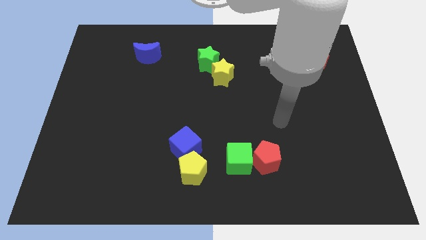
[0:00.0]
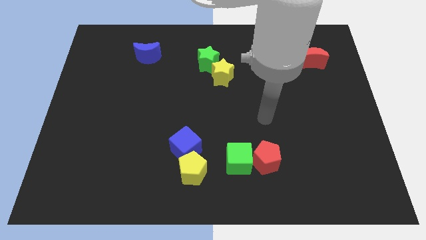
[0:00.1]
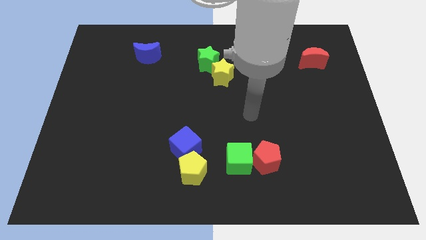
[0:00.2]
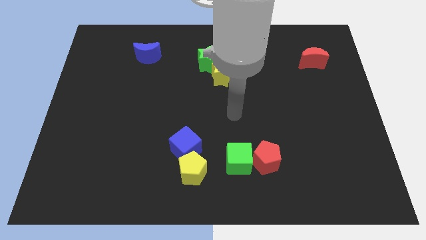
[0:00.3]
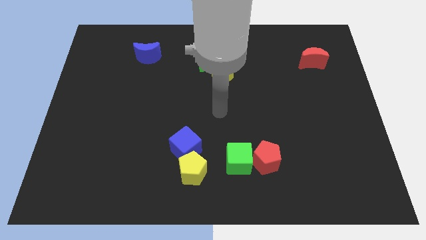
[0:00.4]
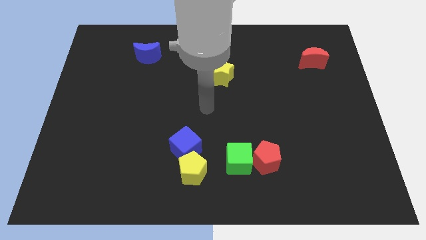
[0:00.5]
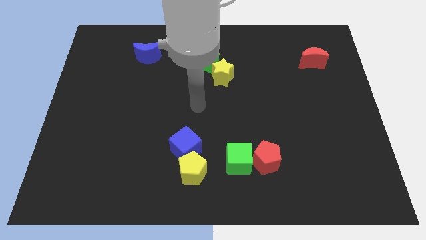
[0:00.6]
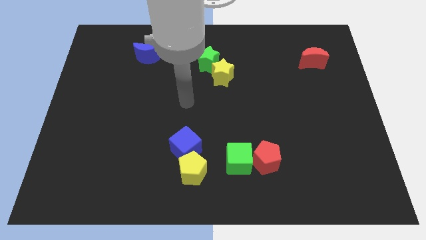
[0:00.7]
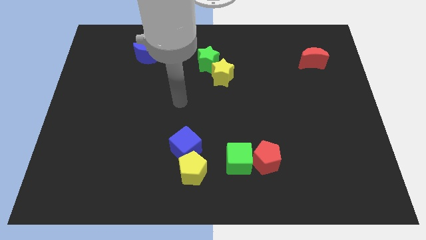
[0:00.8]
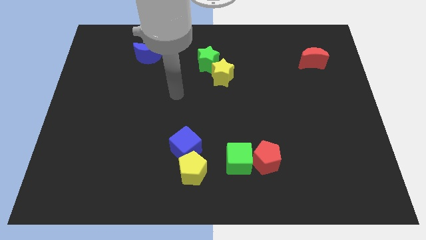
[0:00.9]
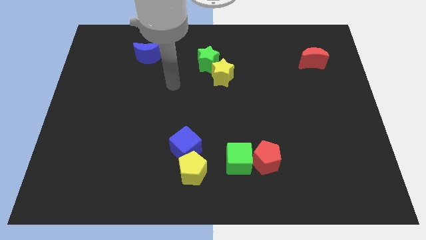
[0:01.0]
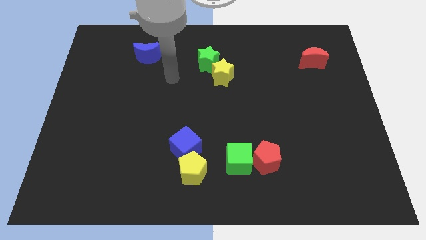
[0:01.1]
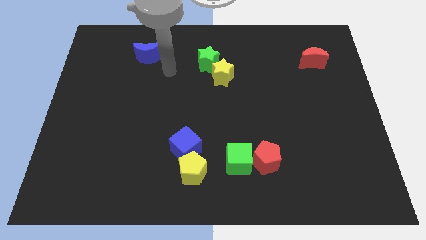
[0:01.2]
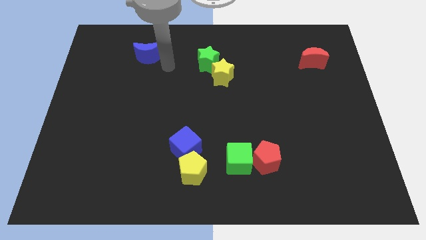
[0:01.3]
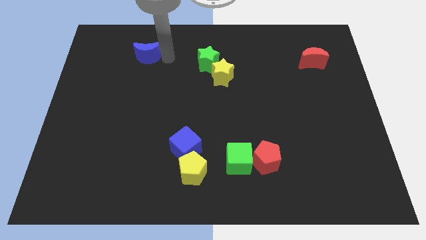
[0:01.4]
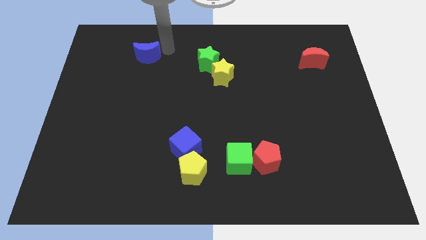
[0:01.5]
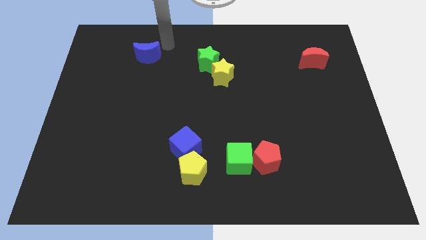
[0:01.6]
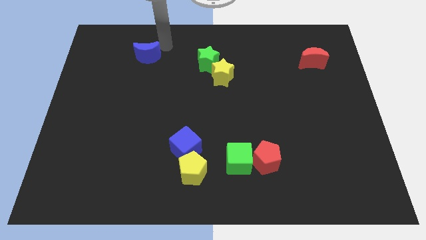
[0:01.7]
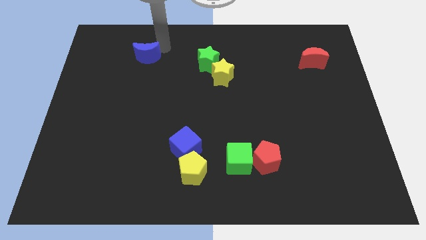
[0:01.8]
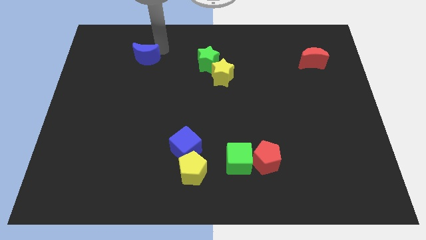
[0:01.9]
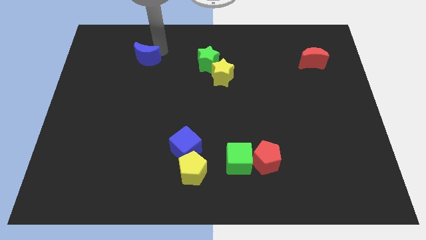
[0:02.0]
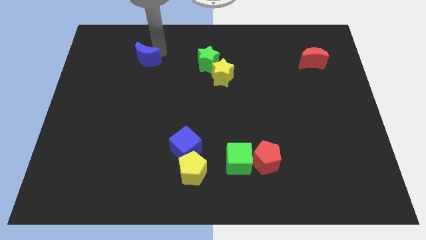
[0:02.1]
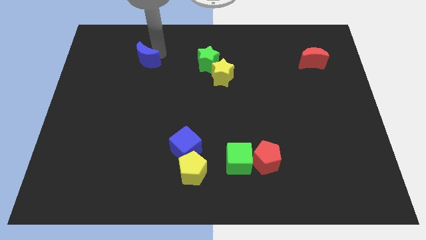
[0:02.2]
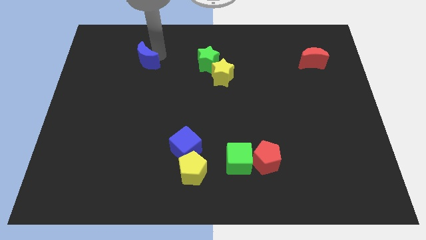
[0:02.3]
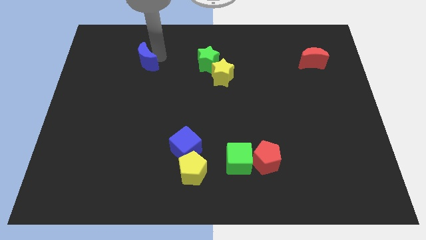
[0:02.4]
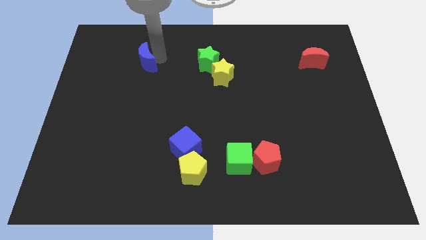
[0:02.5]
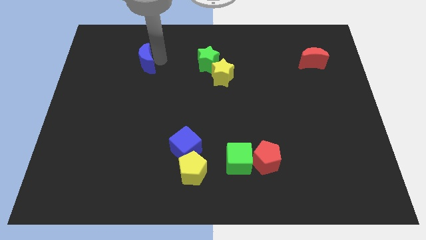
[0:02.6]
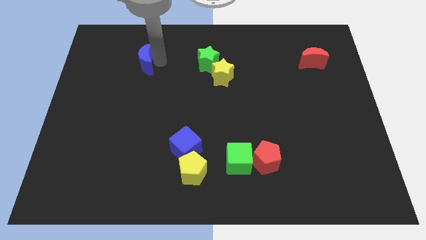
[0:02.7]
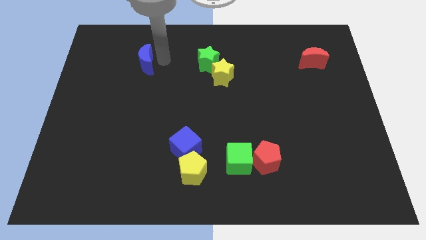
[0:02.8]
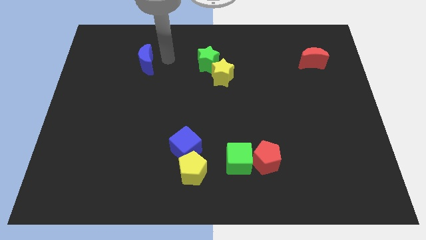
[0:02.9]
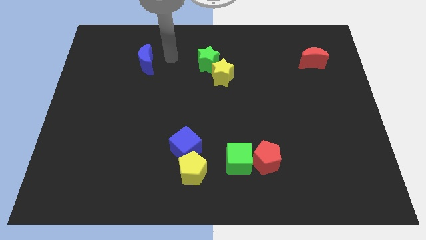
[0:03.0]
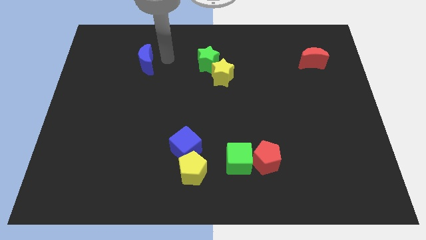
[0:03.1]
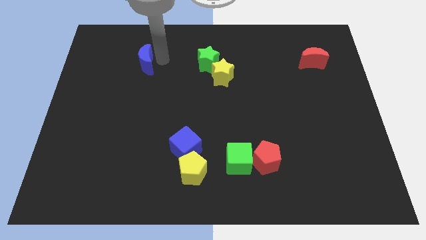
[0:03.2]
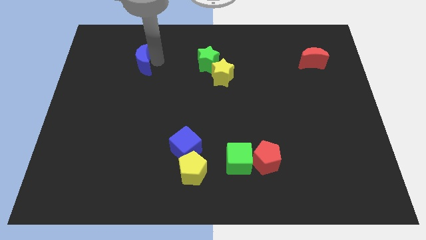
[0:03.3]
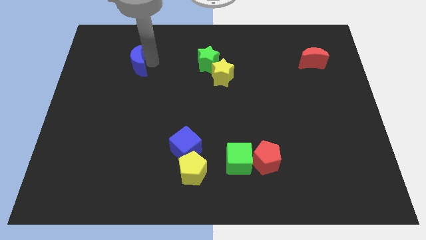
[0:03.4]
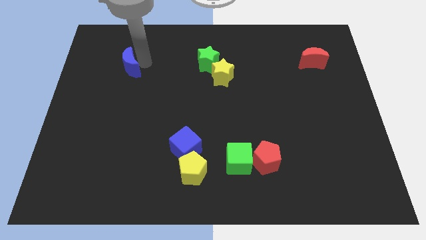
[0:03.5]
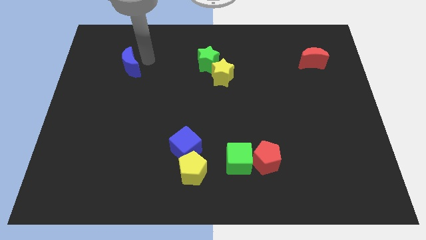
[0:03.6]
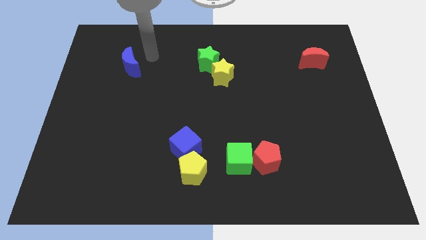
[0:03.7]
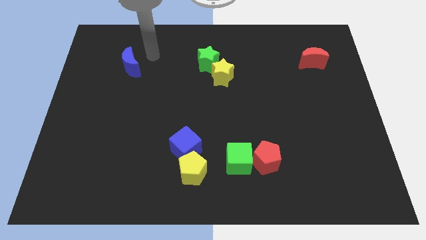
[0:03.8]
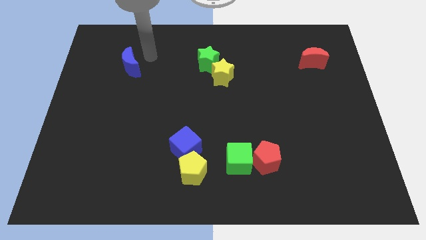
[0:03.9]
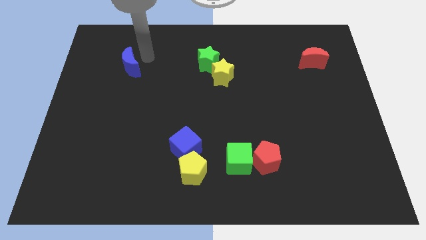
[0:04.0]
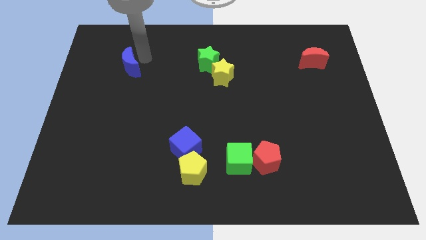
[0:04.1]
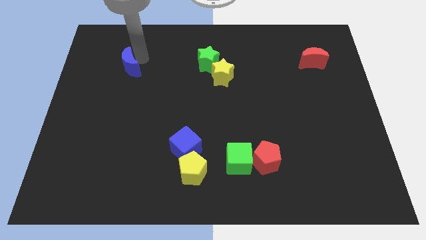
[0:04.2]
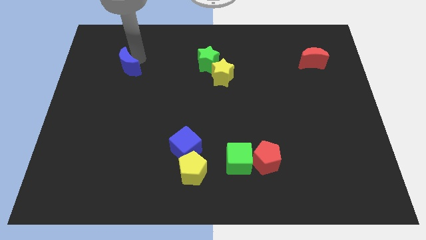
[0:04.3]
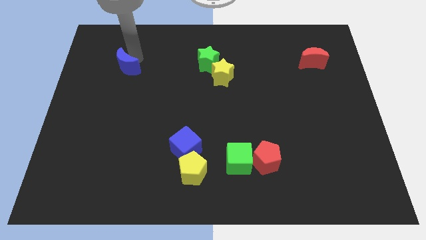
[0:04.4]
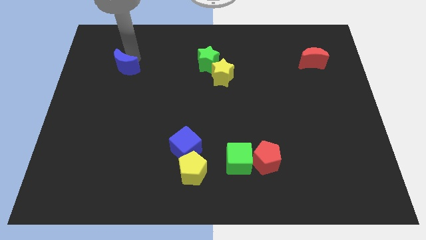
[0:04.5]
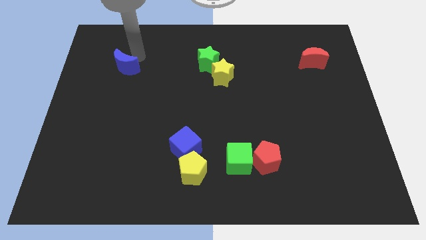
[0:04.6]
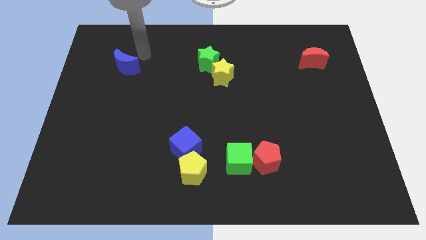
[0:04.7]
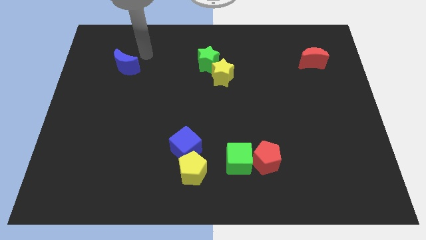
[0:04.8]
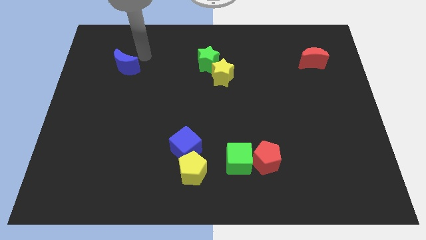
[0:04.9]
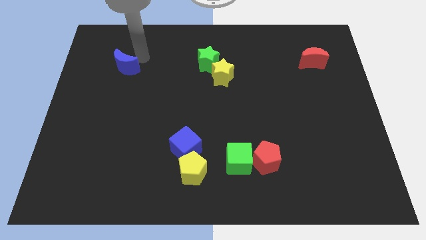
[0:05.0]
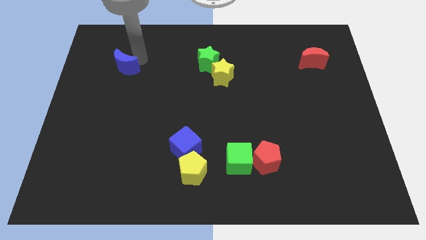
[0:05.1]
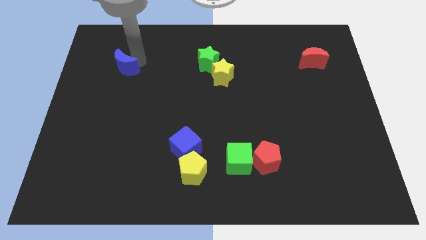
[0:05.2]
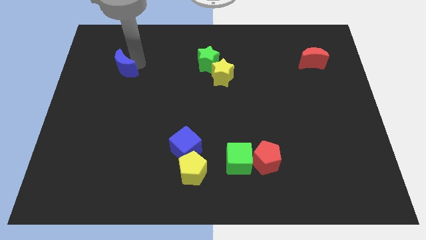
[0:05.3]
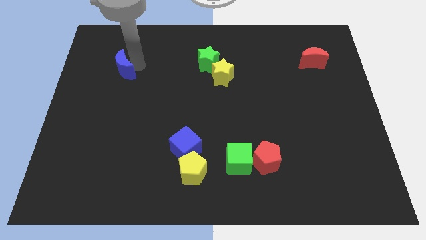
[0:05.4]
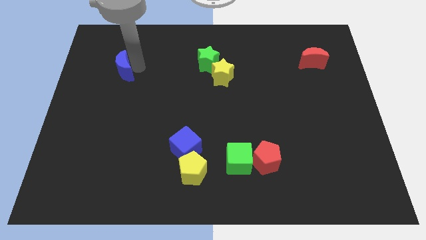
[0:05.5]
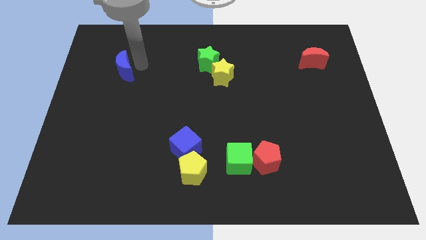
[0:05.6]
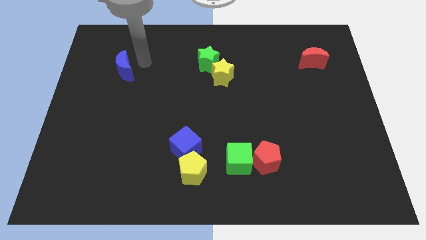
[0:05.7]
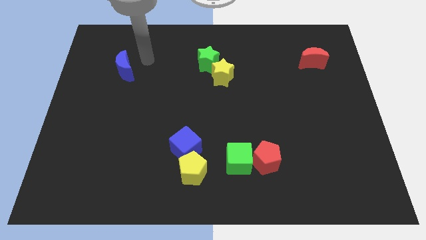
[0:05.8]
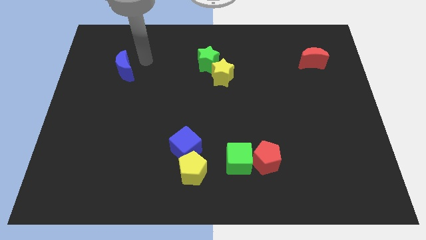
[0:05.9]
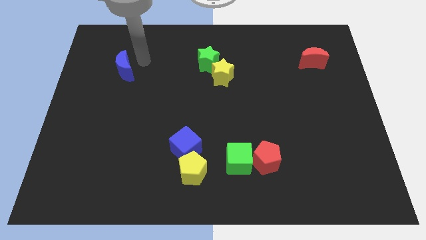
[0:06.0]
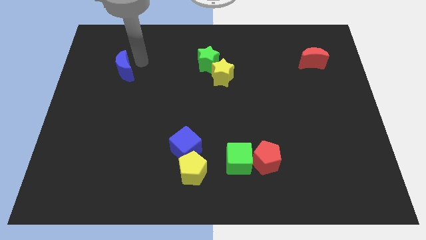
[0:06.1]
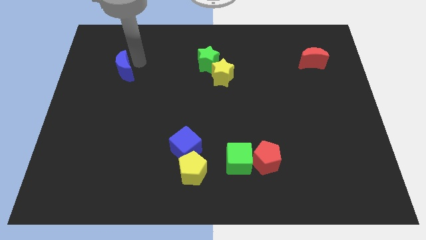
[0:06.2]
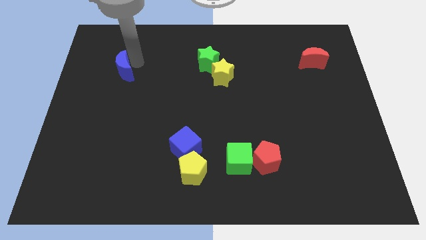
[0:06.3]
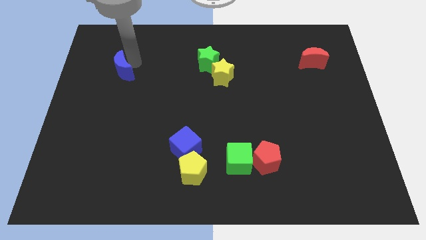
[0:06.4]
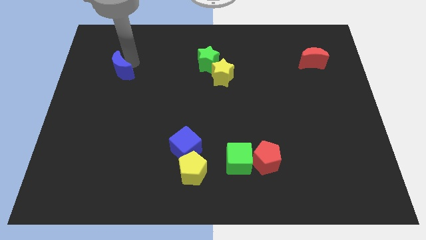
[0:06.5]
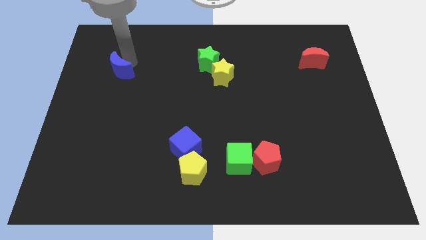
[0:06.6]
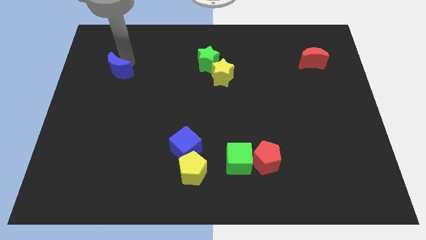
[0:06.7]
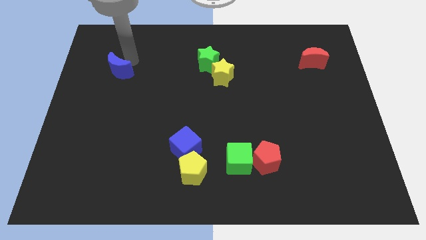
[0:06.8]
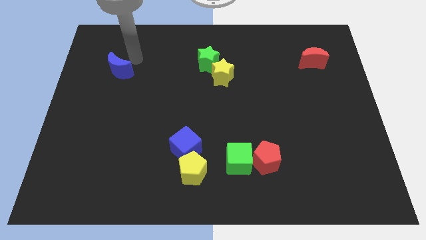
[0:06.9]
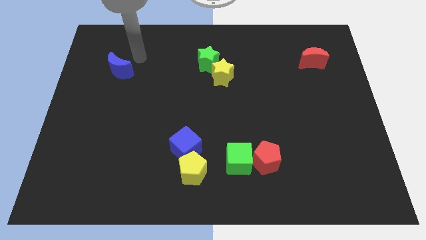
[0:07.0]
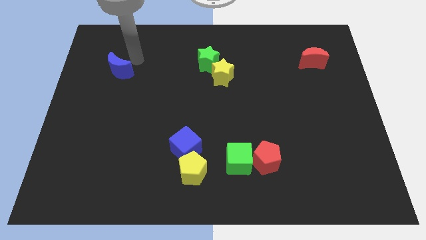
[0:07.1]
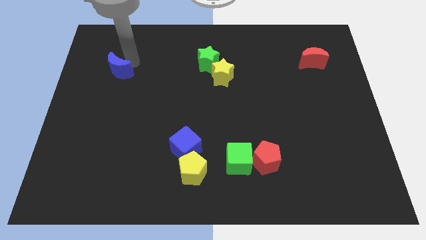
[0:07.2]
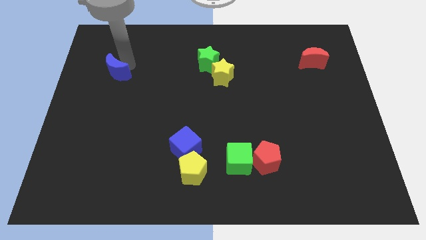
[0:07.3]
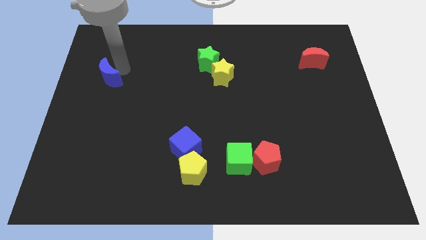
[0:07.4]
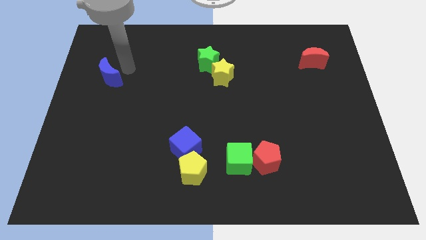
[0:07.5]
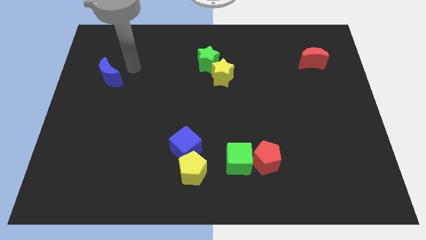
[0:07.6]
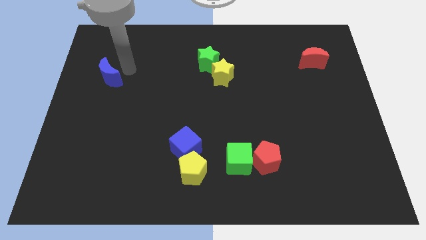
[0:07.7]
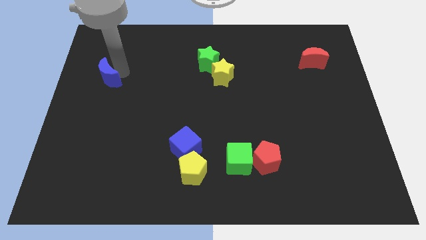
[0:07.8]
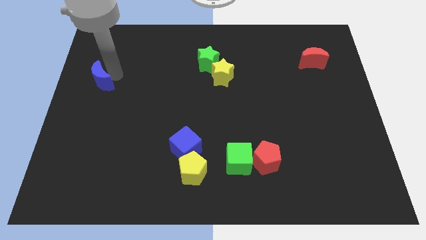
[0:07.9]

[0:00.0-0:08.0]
put the blue moon to the left side of the board
